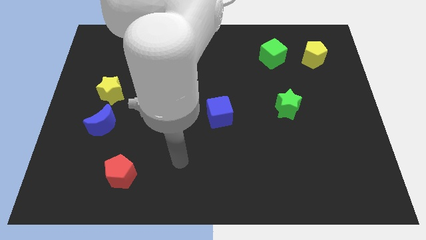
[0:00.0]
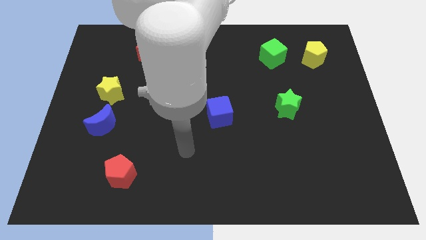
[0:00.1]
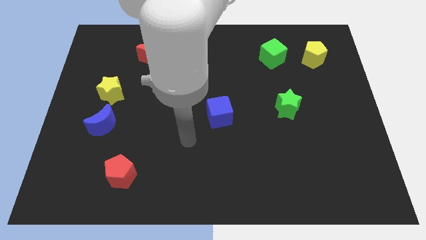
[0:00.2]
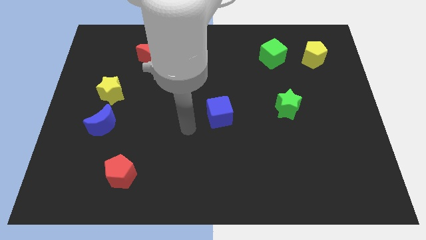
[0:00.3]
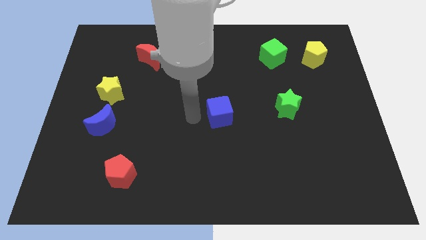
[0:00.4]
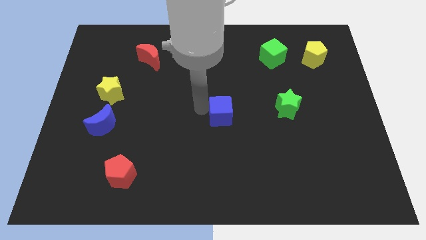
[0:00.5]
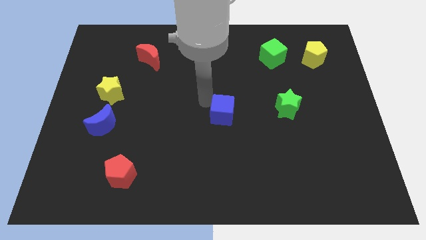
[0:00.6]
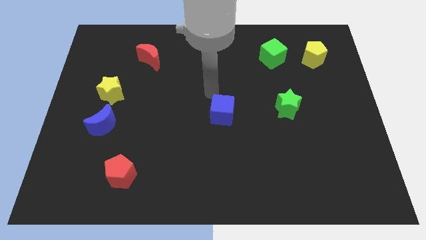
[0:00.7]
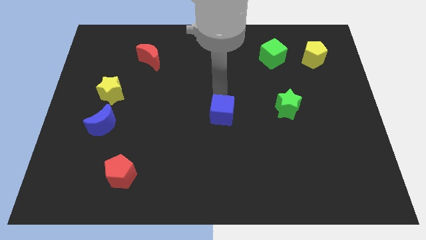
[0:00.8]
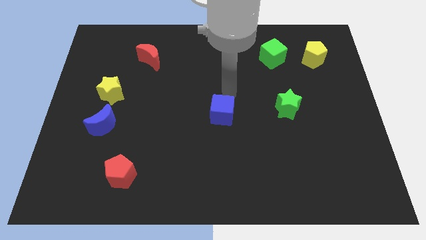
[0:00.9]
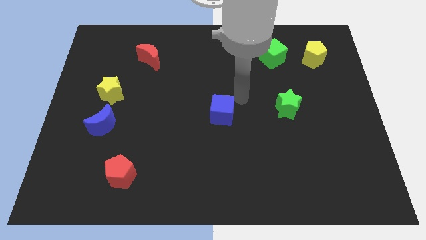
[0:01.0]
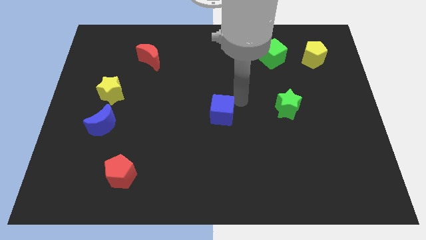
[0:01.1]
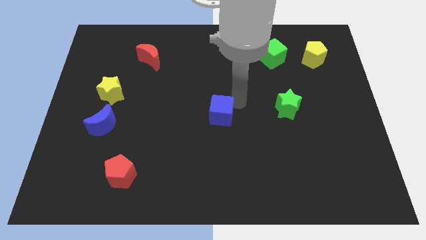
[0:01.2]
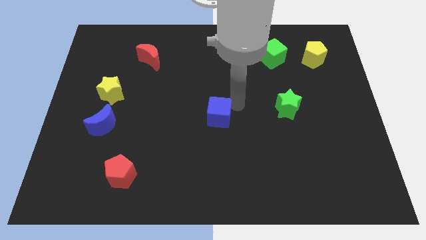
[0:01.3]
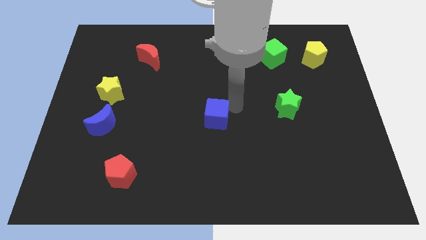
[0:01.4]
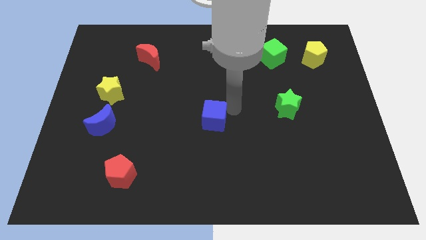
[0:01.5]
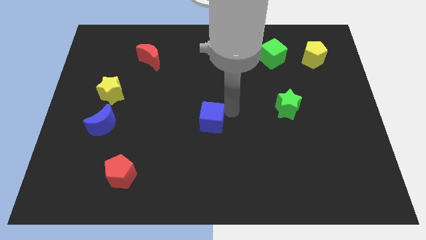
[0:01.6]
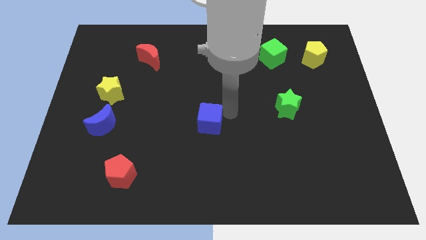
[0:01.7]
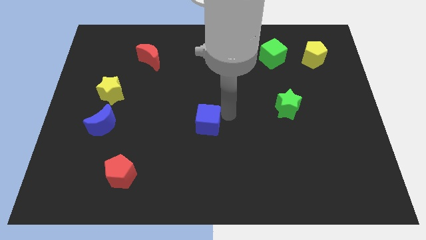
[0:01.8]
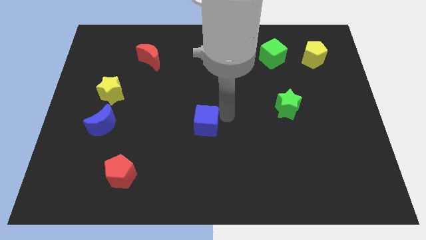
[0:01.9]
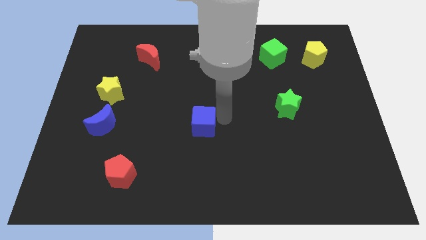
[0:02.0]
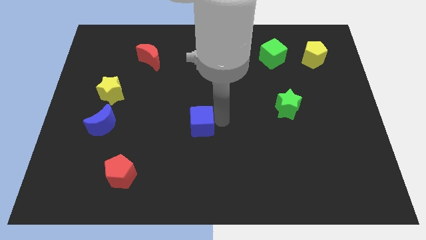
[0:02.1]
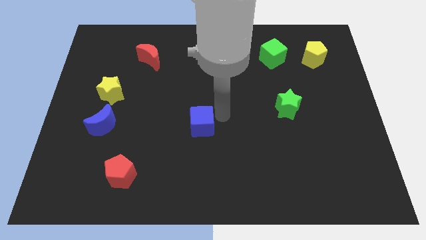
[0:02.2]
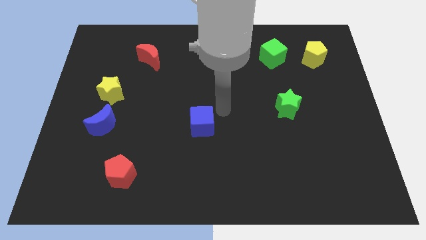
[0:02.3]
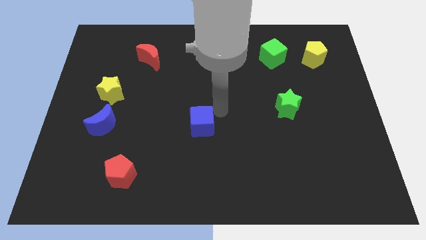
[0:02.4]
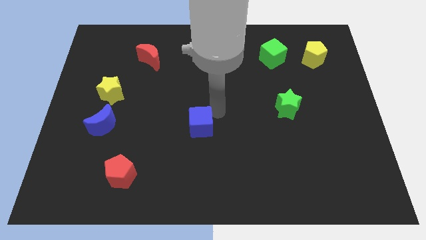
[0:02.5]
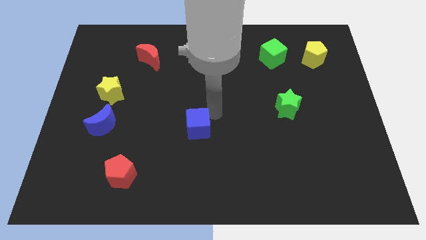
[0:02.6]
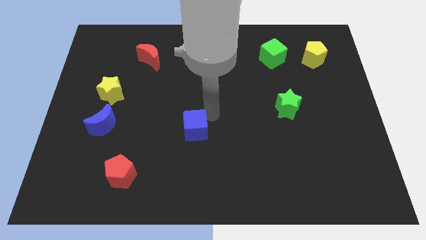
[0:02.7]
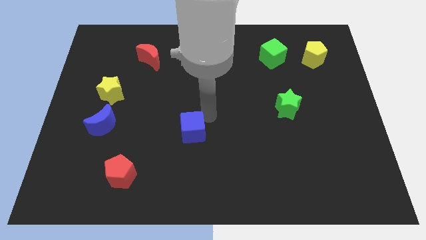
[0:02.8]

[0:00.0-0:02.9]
slightly push the blue cube downwards and left

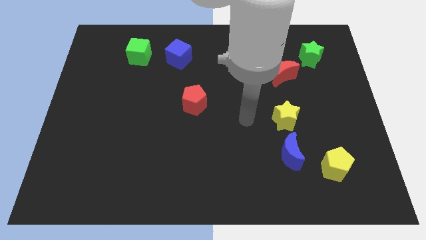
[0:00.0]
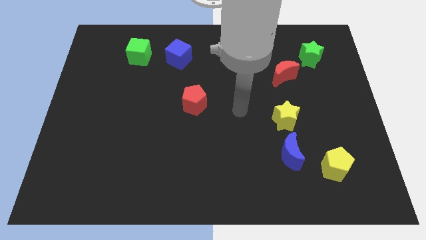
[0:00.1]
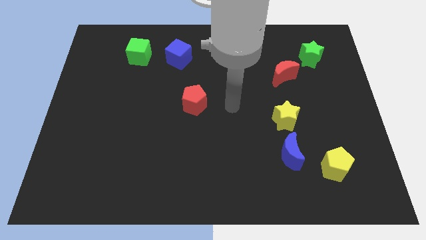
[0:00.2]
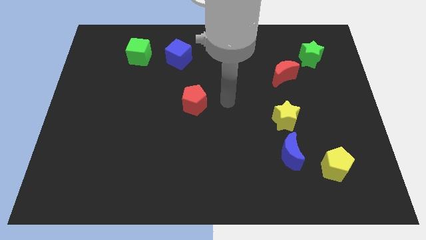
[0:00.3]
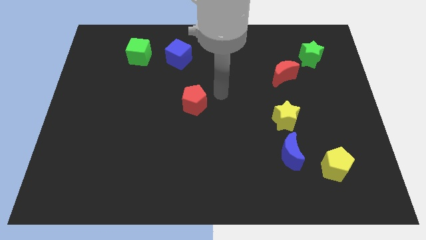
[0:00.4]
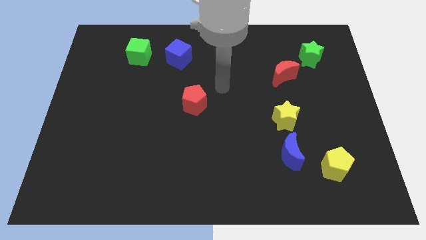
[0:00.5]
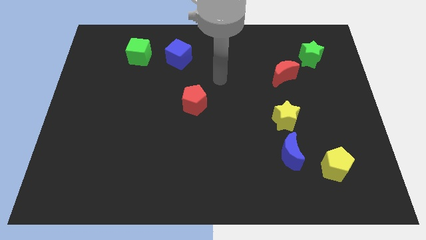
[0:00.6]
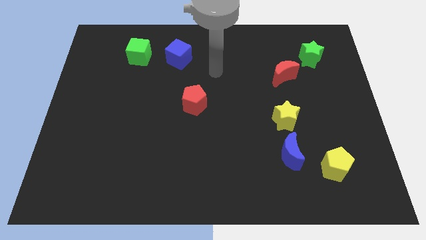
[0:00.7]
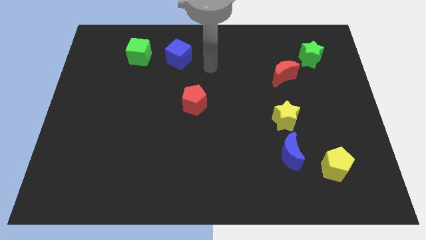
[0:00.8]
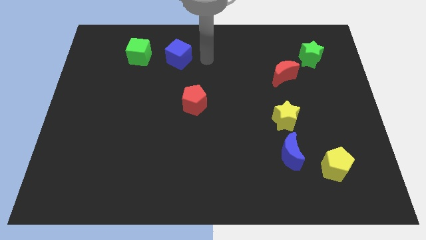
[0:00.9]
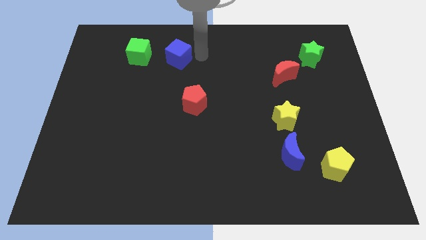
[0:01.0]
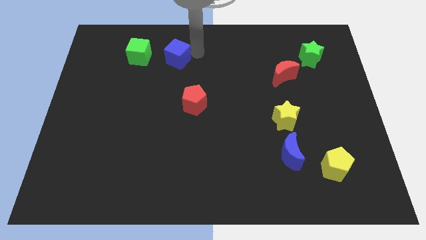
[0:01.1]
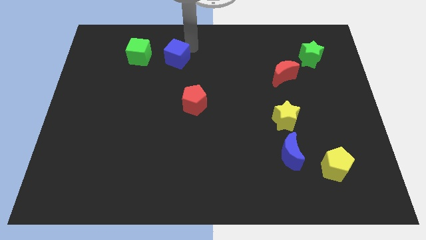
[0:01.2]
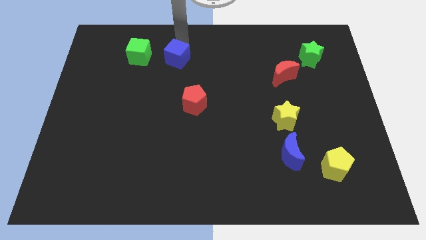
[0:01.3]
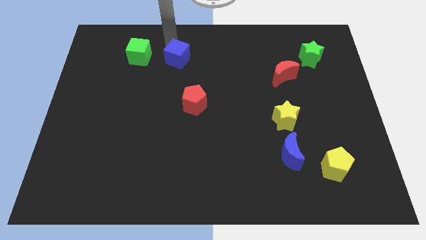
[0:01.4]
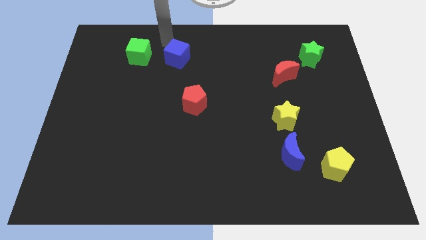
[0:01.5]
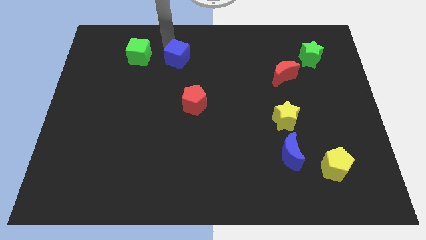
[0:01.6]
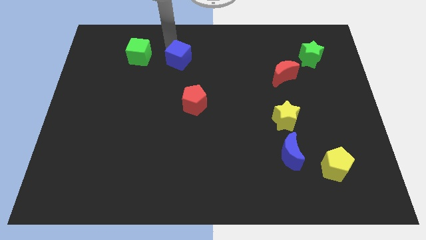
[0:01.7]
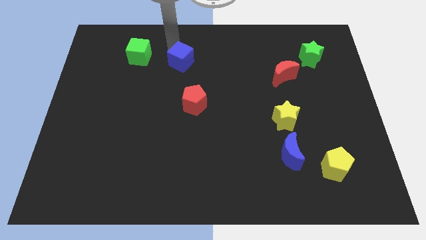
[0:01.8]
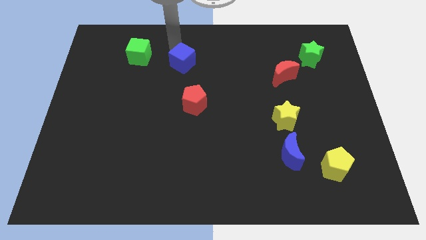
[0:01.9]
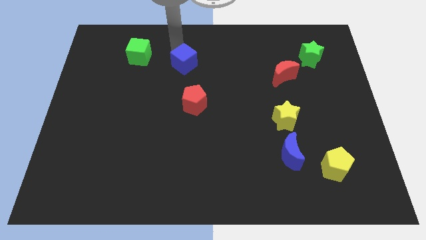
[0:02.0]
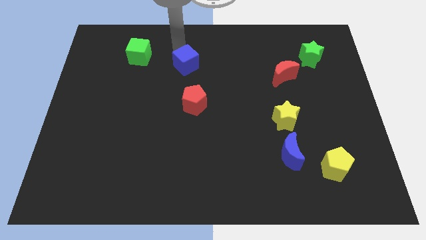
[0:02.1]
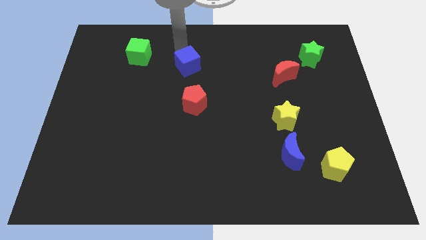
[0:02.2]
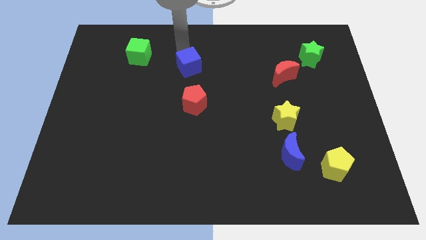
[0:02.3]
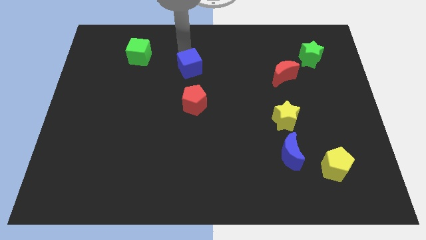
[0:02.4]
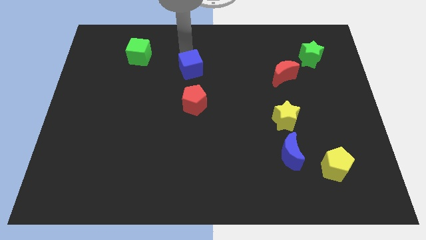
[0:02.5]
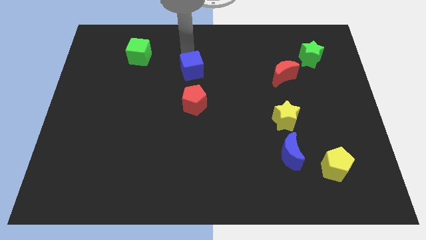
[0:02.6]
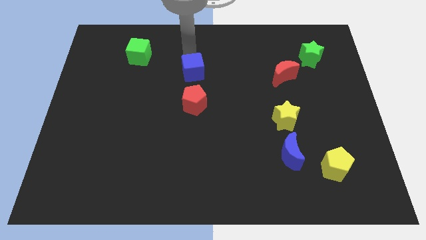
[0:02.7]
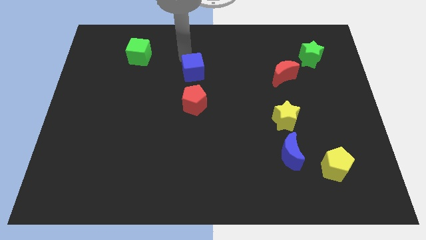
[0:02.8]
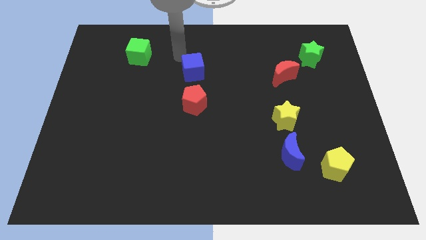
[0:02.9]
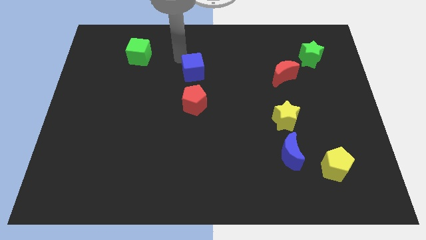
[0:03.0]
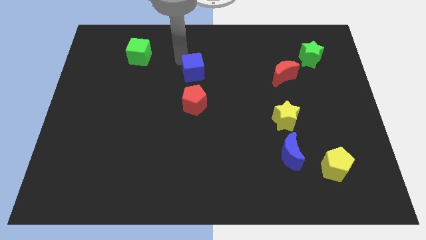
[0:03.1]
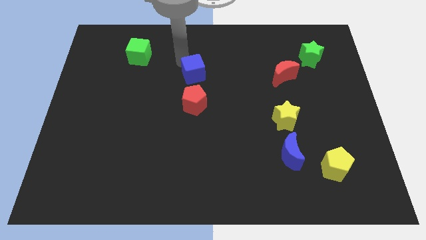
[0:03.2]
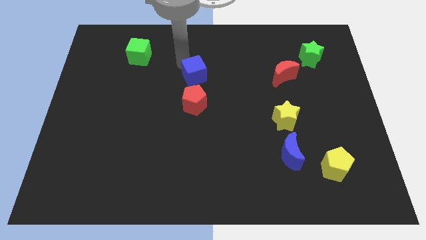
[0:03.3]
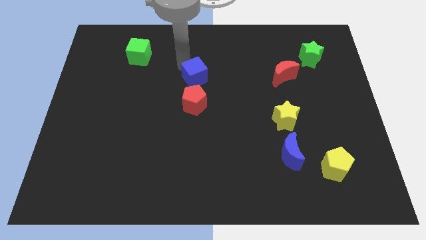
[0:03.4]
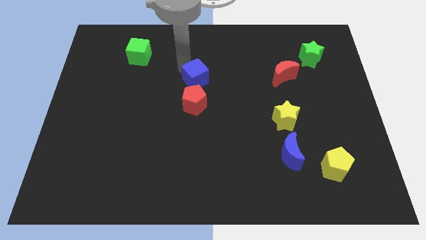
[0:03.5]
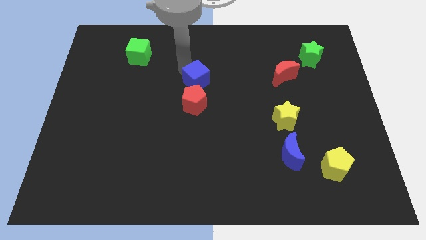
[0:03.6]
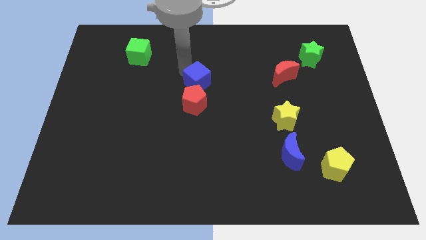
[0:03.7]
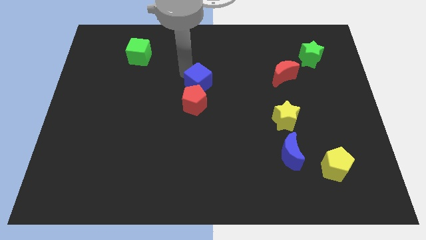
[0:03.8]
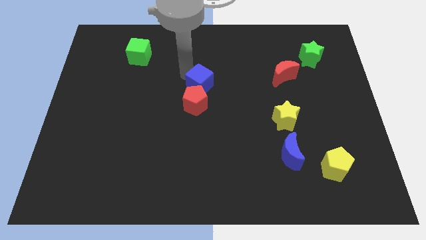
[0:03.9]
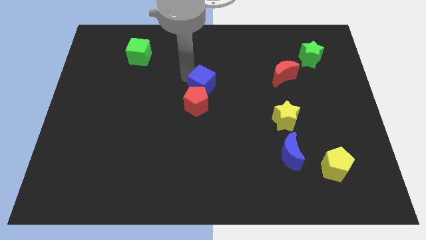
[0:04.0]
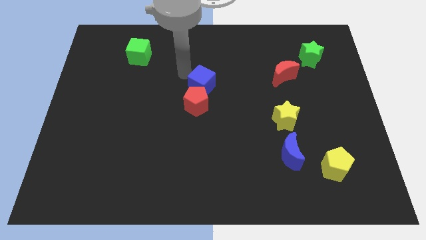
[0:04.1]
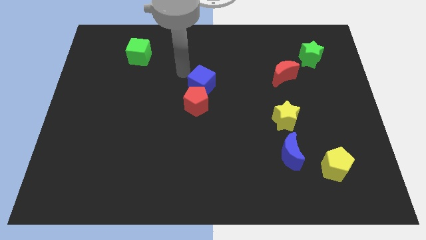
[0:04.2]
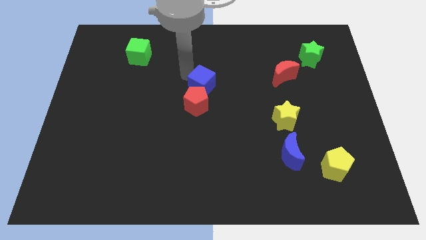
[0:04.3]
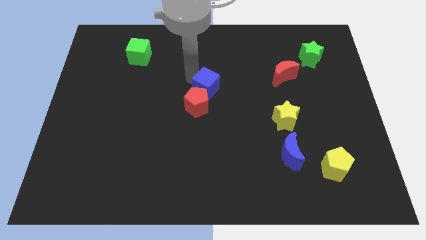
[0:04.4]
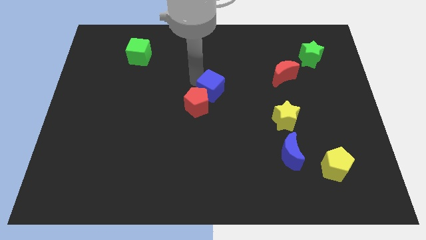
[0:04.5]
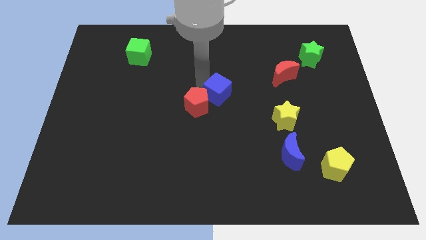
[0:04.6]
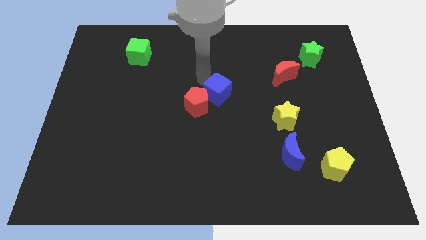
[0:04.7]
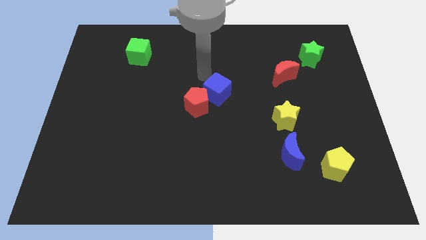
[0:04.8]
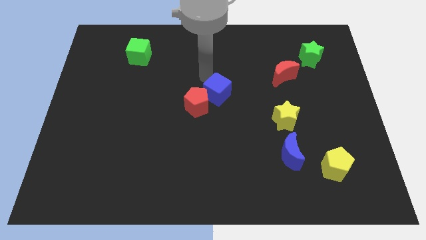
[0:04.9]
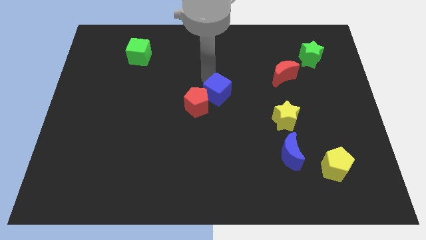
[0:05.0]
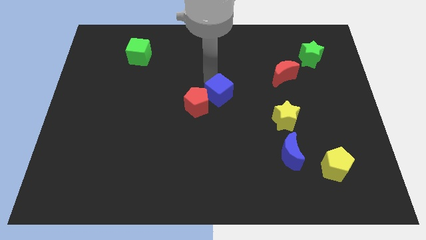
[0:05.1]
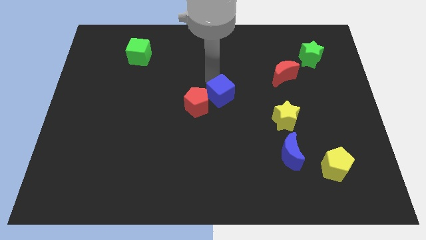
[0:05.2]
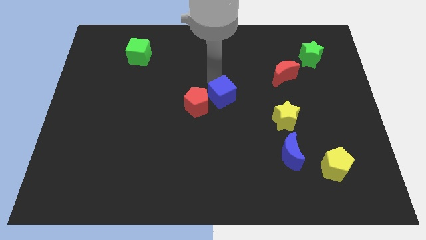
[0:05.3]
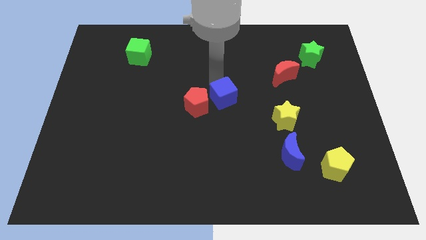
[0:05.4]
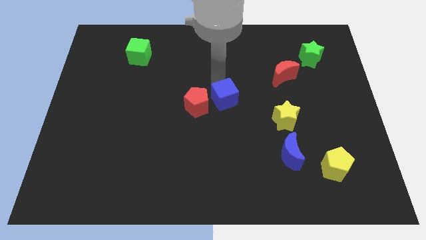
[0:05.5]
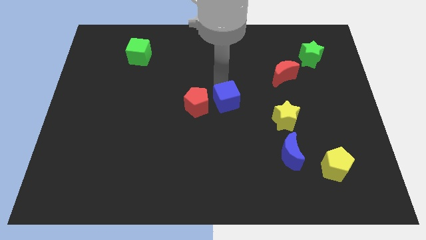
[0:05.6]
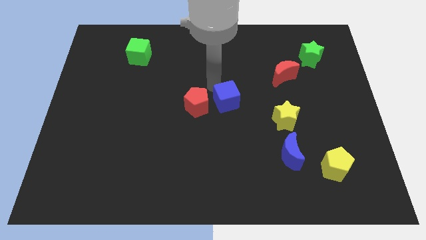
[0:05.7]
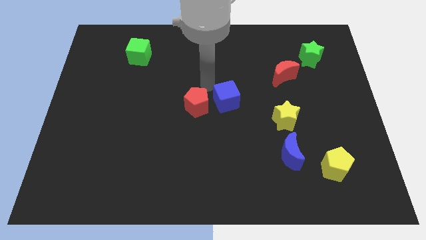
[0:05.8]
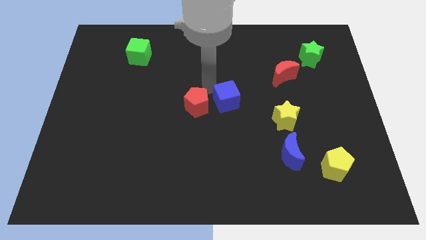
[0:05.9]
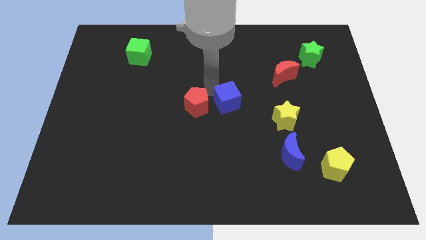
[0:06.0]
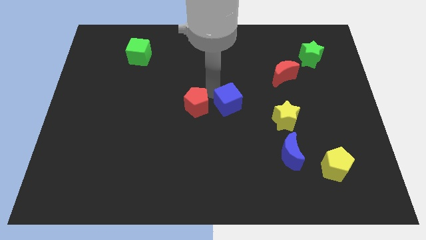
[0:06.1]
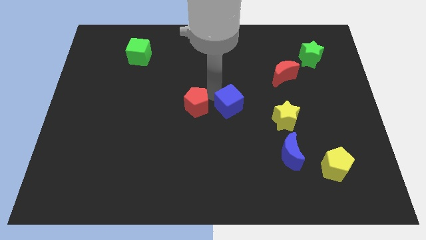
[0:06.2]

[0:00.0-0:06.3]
move the blue cube diagonally downwards and right
